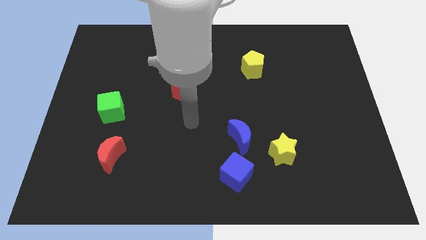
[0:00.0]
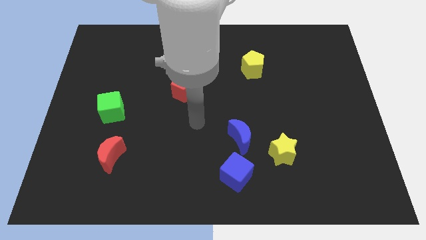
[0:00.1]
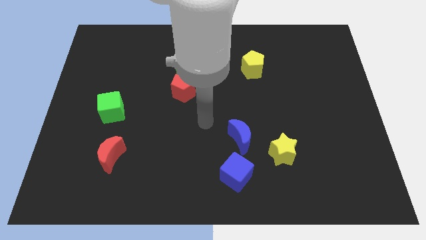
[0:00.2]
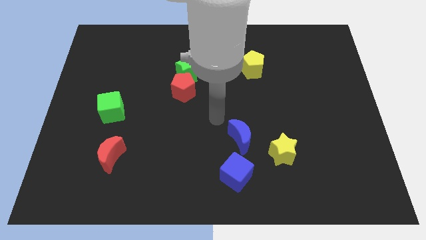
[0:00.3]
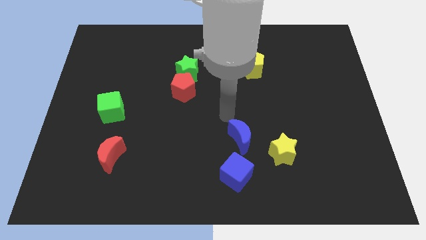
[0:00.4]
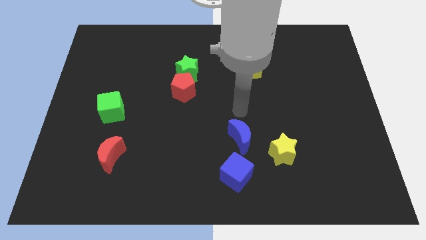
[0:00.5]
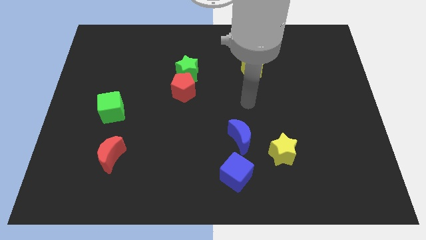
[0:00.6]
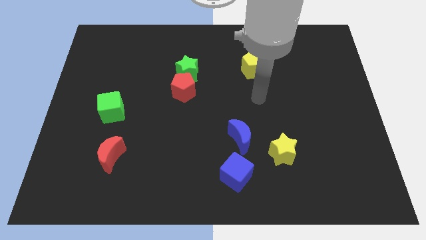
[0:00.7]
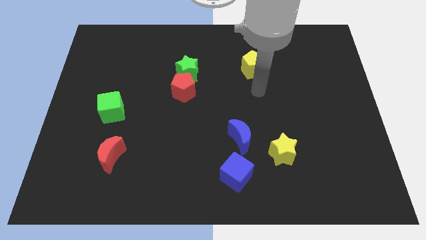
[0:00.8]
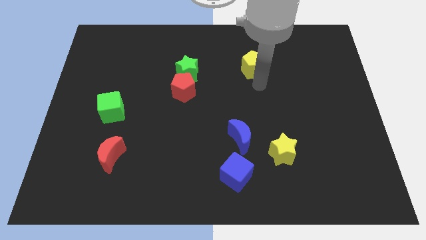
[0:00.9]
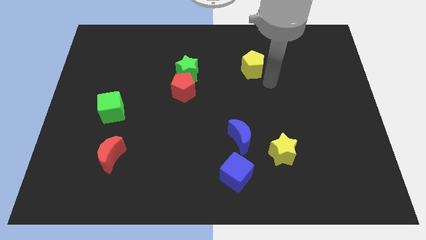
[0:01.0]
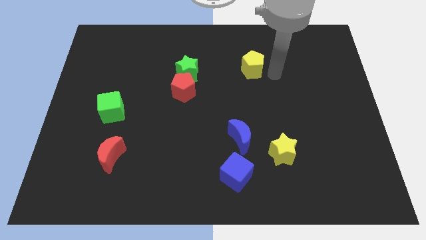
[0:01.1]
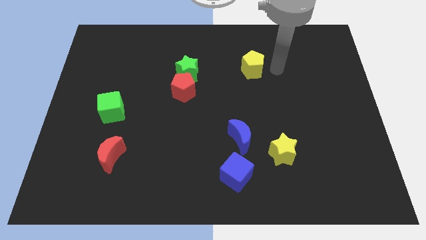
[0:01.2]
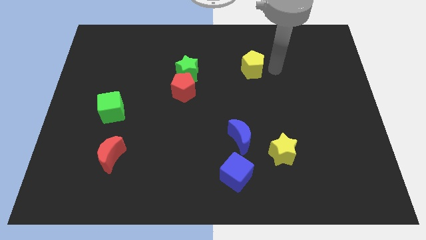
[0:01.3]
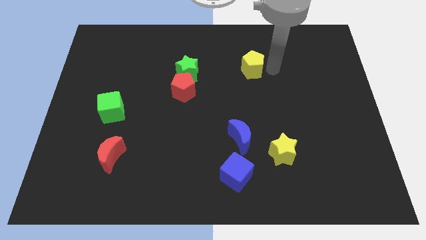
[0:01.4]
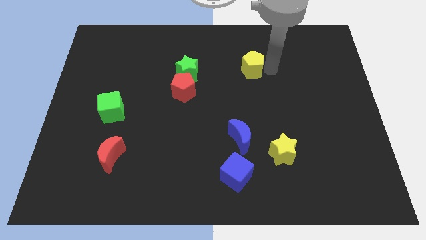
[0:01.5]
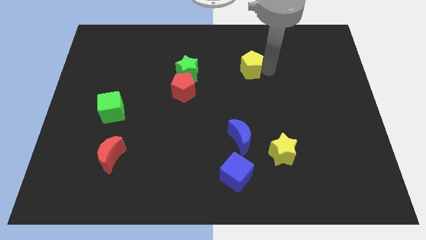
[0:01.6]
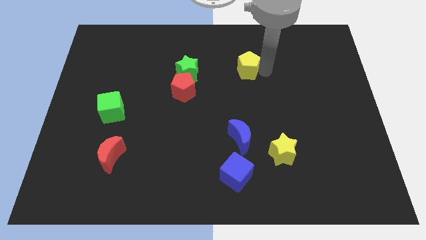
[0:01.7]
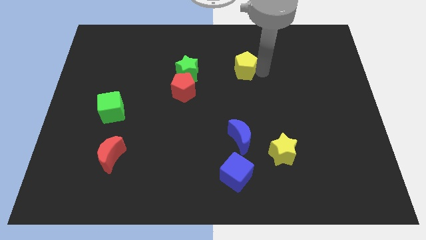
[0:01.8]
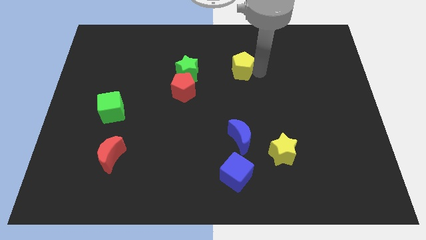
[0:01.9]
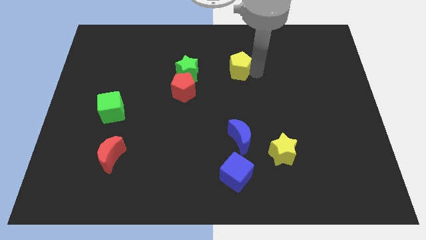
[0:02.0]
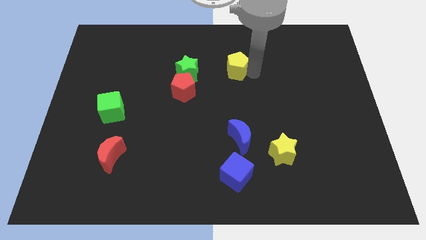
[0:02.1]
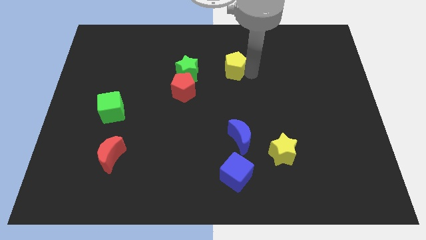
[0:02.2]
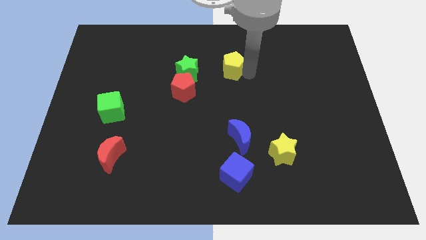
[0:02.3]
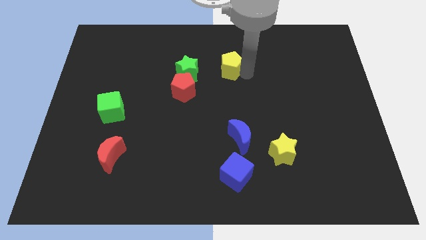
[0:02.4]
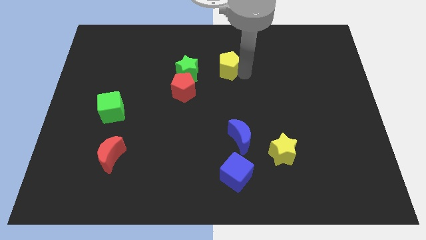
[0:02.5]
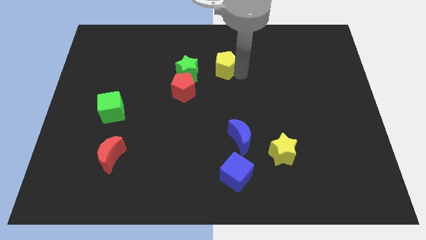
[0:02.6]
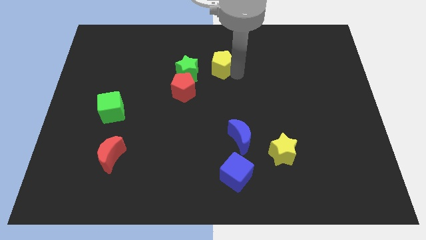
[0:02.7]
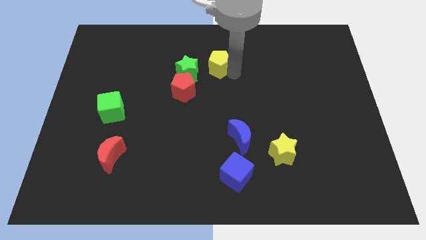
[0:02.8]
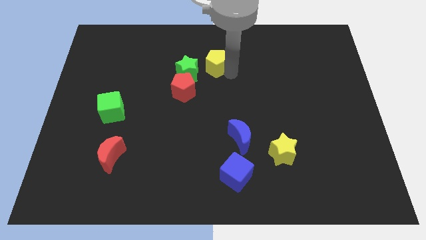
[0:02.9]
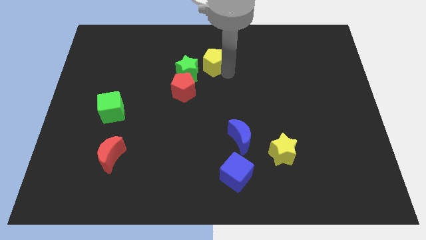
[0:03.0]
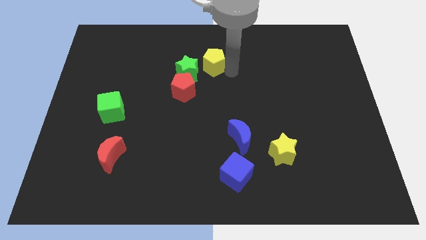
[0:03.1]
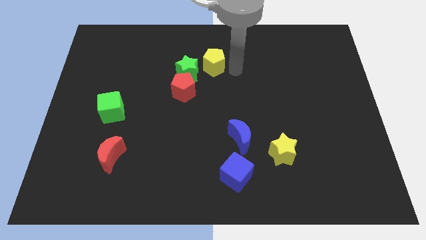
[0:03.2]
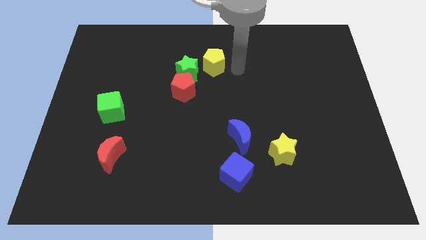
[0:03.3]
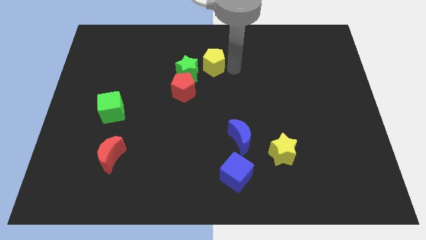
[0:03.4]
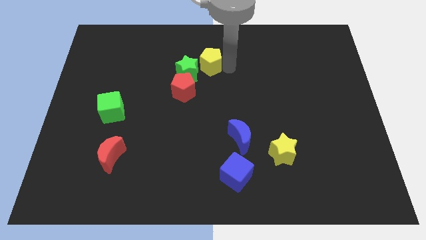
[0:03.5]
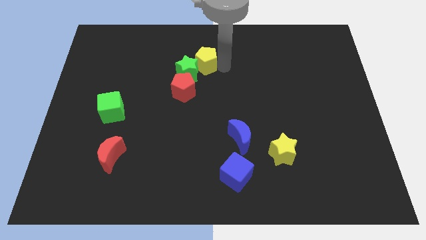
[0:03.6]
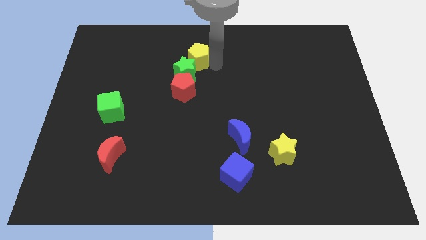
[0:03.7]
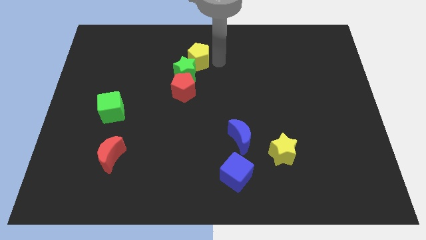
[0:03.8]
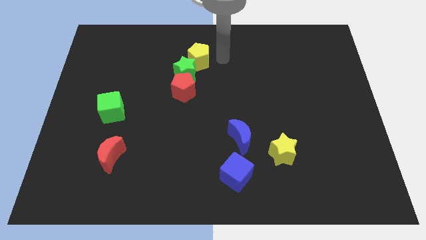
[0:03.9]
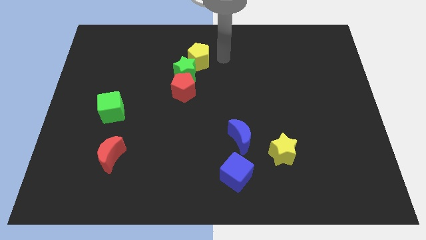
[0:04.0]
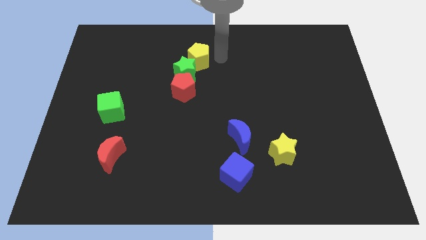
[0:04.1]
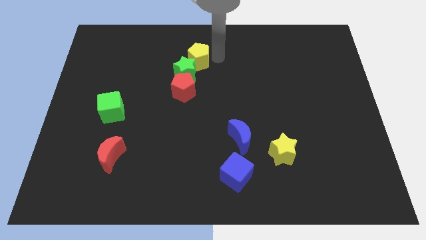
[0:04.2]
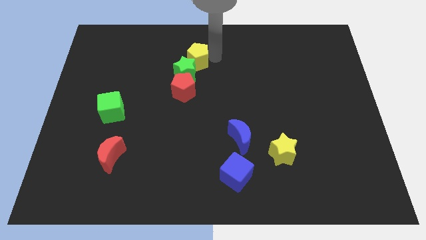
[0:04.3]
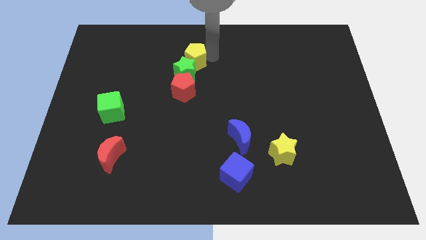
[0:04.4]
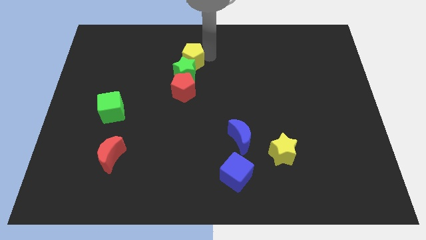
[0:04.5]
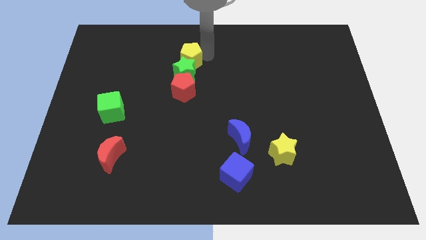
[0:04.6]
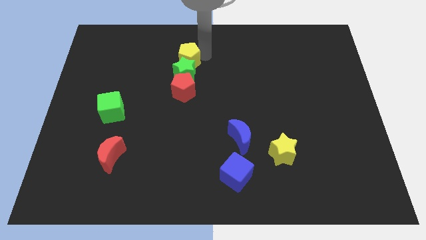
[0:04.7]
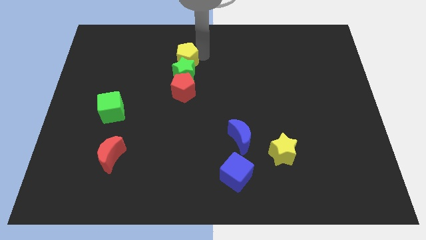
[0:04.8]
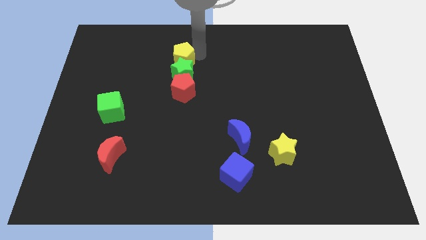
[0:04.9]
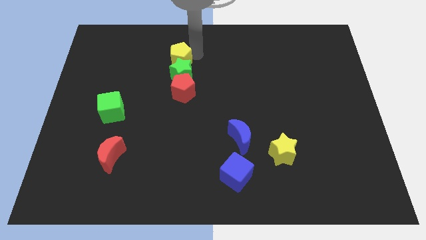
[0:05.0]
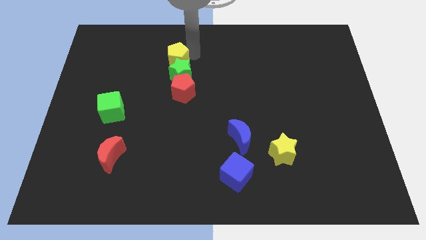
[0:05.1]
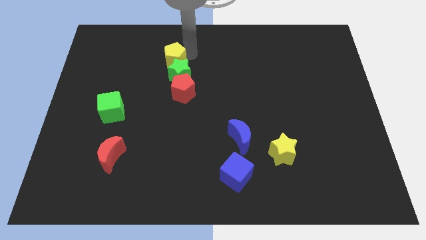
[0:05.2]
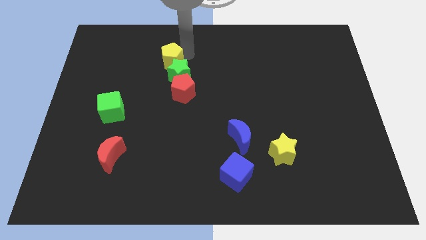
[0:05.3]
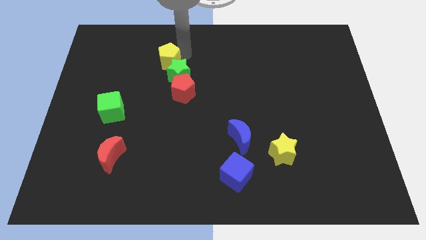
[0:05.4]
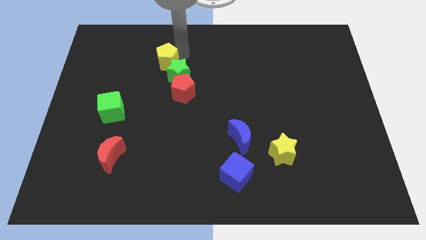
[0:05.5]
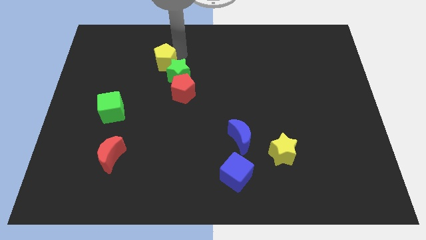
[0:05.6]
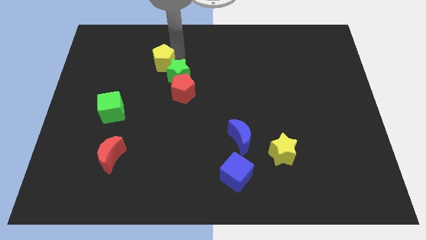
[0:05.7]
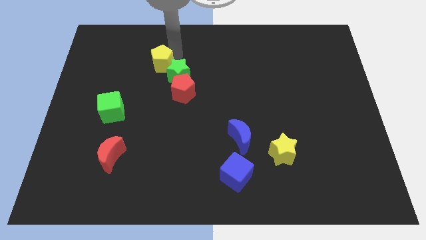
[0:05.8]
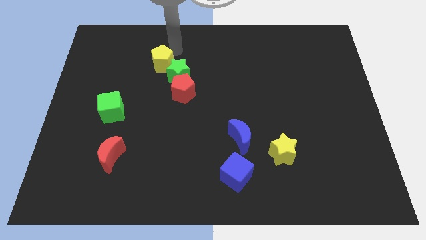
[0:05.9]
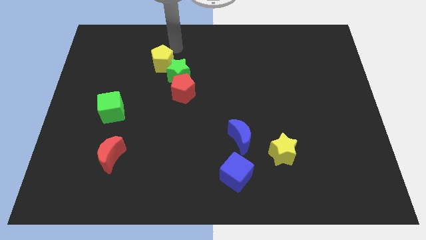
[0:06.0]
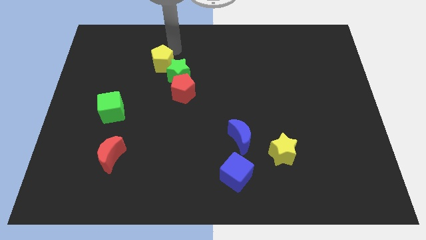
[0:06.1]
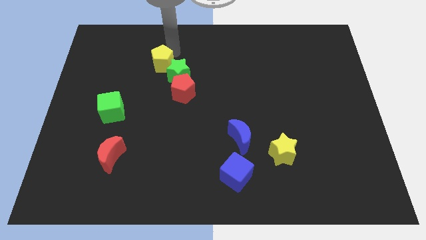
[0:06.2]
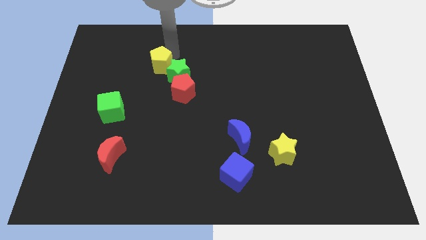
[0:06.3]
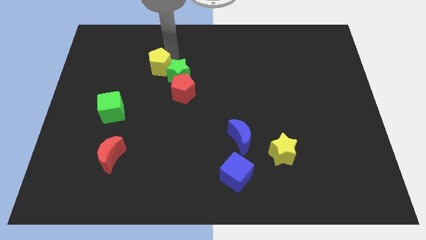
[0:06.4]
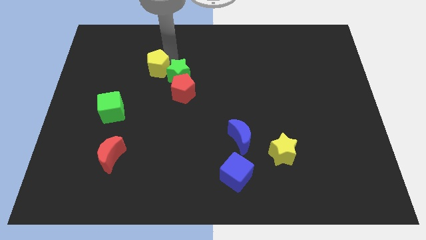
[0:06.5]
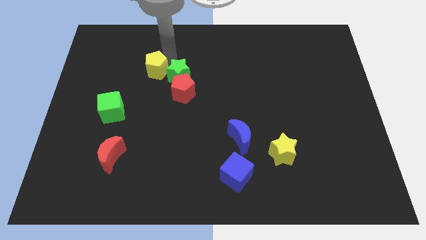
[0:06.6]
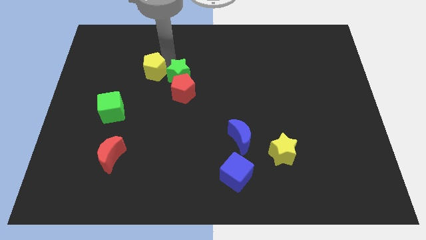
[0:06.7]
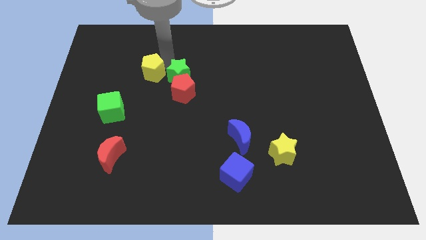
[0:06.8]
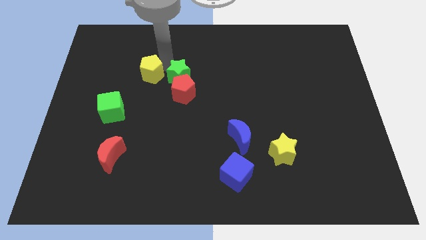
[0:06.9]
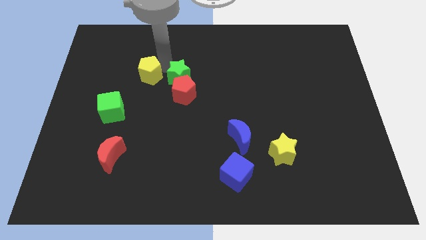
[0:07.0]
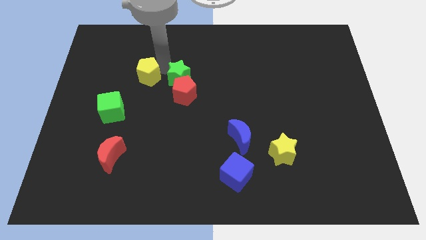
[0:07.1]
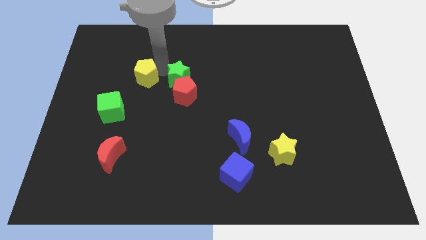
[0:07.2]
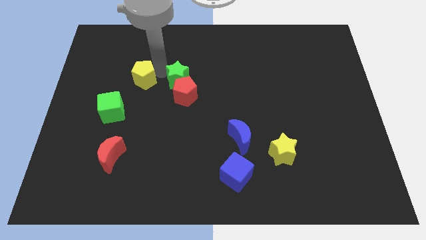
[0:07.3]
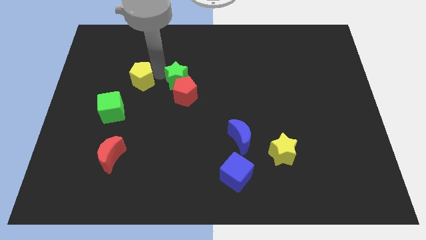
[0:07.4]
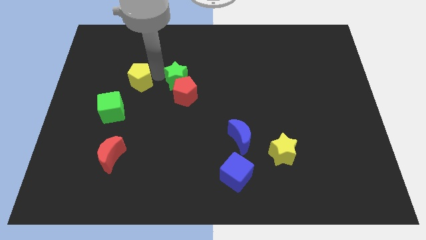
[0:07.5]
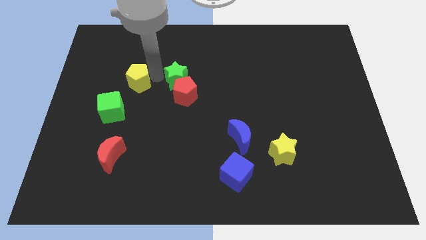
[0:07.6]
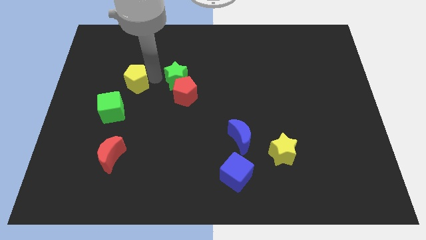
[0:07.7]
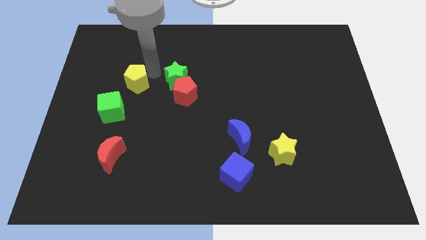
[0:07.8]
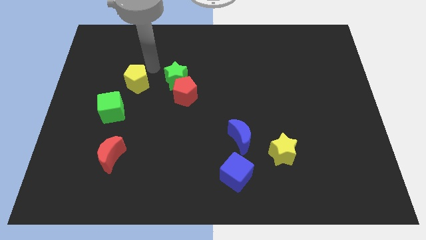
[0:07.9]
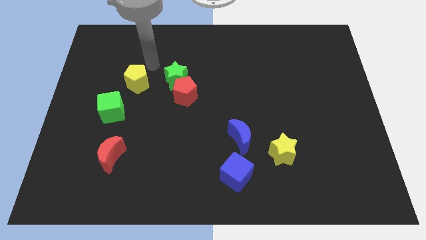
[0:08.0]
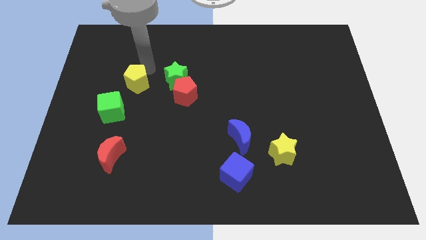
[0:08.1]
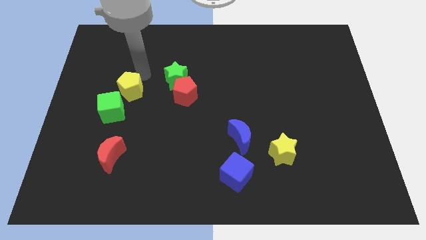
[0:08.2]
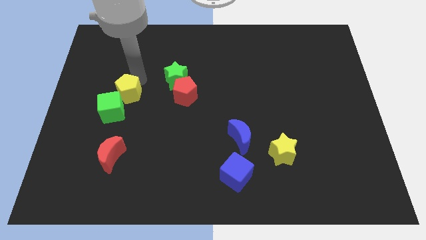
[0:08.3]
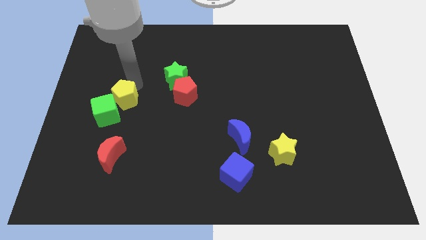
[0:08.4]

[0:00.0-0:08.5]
move the yellow pentagon close to the green cube
